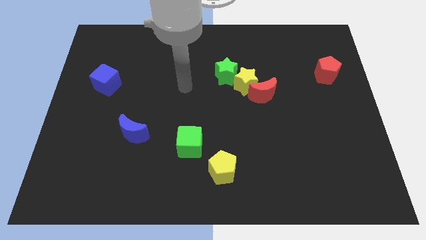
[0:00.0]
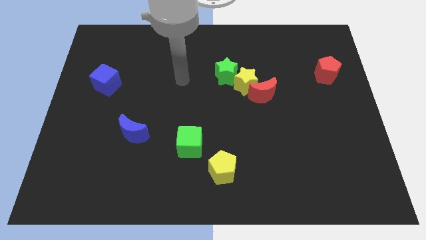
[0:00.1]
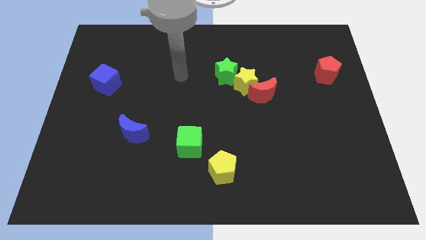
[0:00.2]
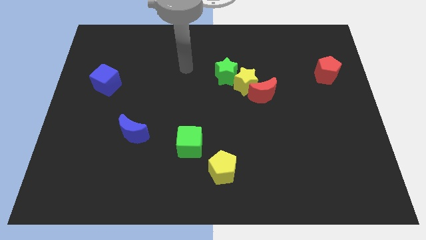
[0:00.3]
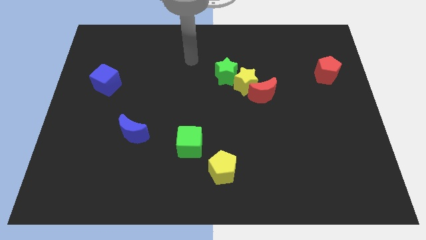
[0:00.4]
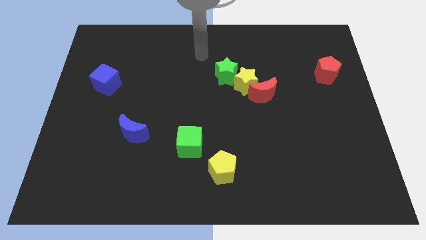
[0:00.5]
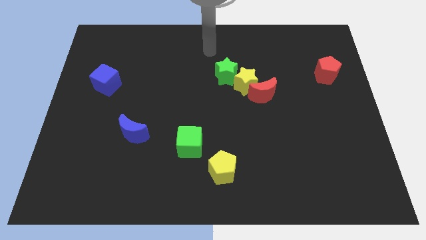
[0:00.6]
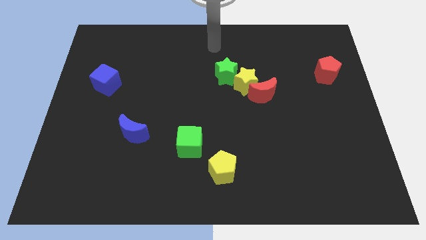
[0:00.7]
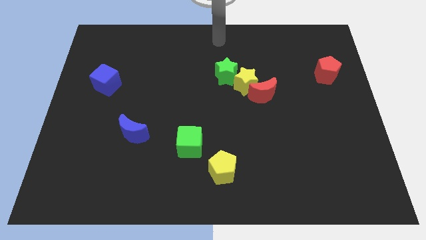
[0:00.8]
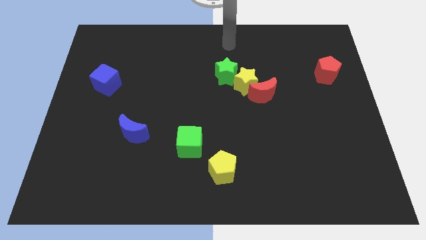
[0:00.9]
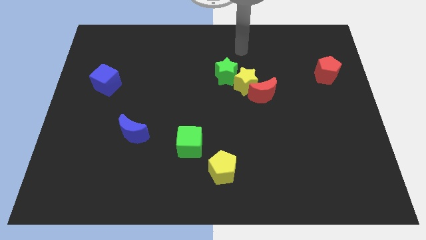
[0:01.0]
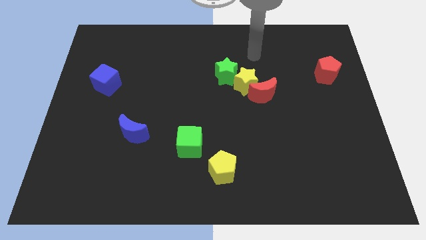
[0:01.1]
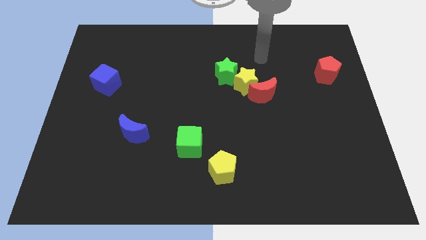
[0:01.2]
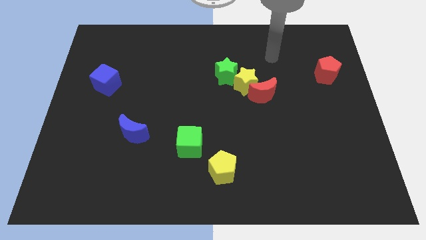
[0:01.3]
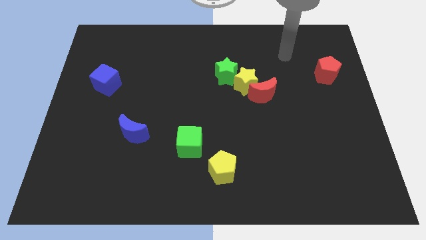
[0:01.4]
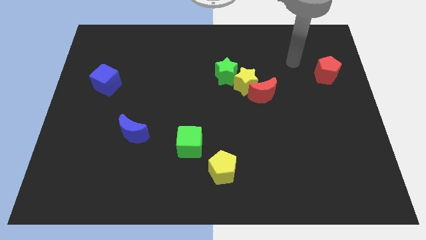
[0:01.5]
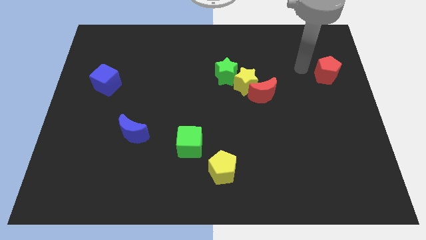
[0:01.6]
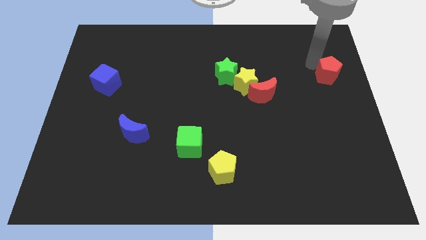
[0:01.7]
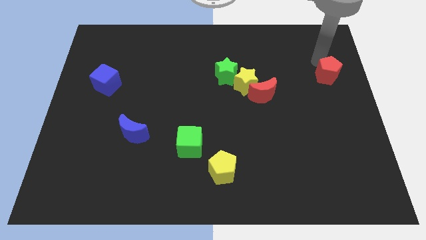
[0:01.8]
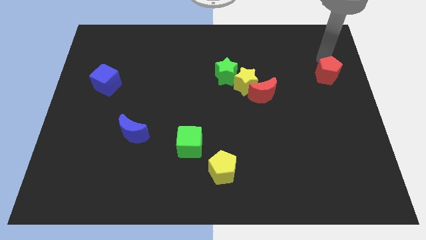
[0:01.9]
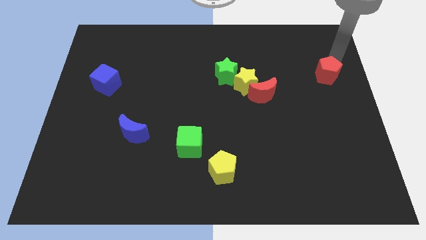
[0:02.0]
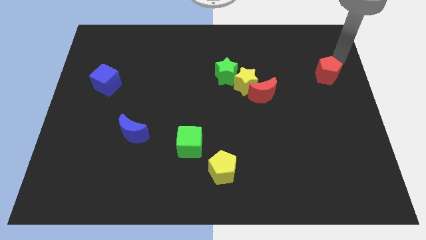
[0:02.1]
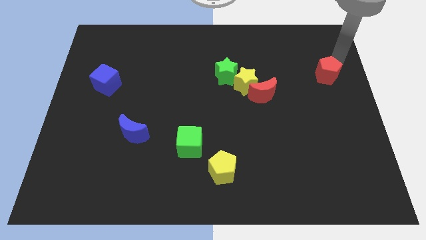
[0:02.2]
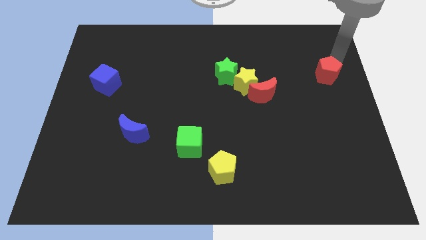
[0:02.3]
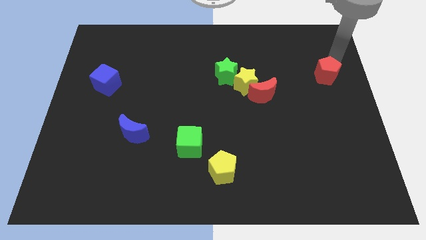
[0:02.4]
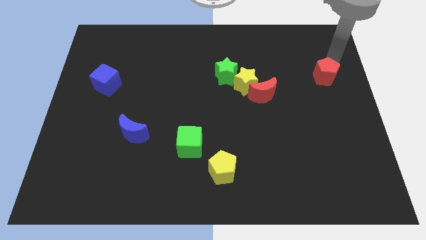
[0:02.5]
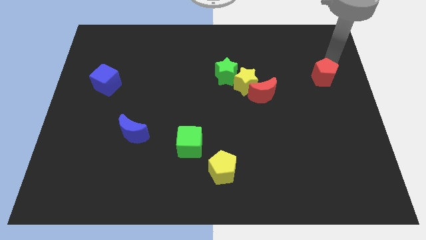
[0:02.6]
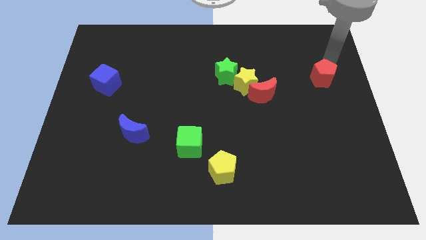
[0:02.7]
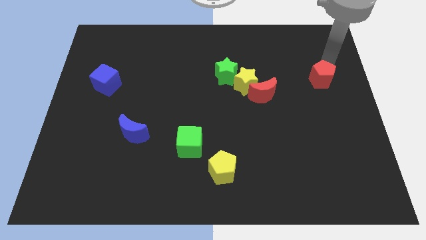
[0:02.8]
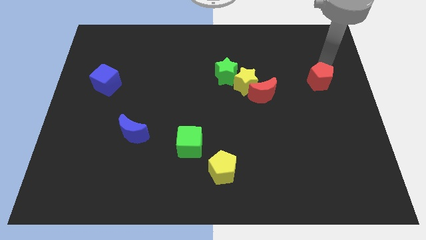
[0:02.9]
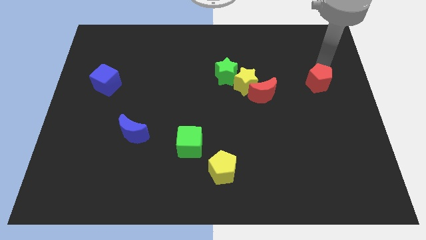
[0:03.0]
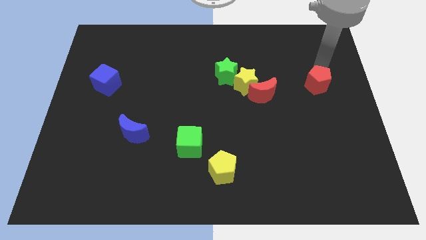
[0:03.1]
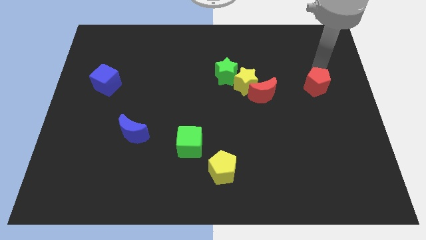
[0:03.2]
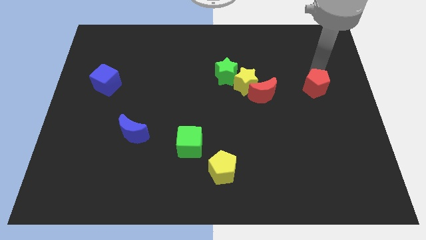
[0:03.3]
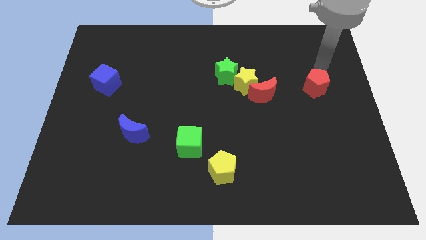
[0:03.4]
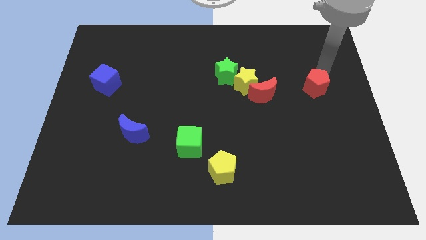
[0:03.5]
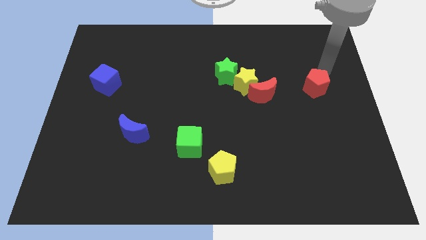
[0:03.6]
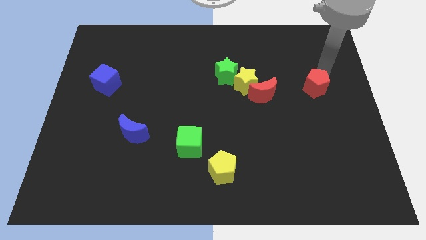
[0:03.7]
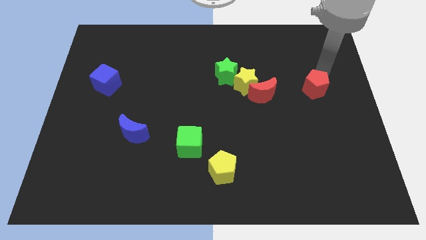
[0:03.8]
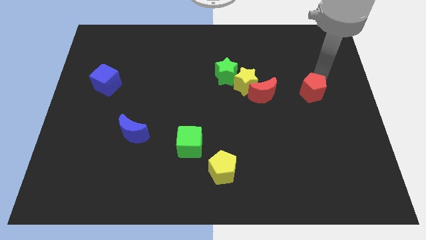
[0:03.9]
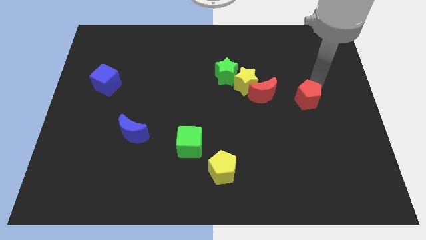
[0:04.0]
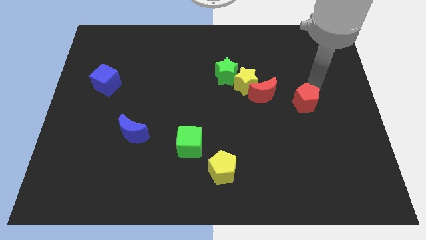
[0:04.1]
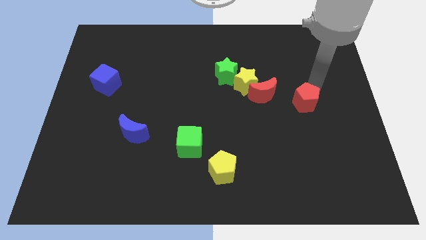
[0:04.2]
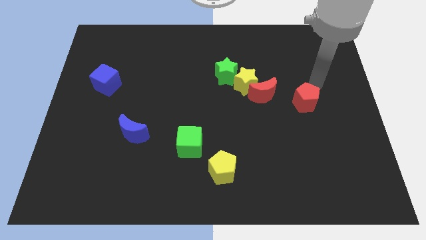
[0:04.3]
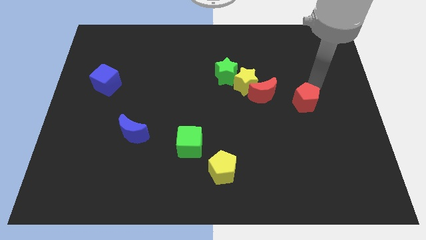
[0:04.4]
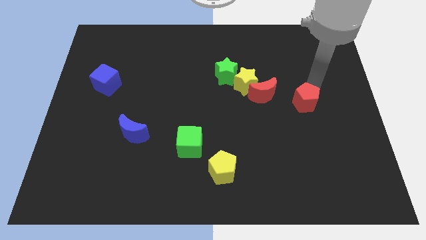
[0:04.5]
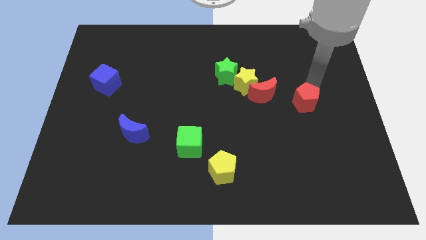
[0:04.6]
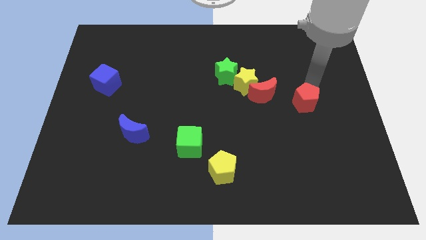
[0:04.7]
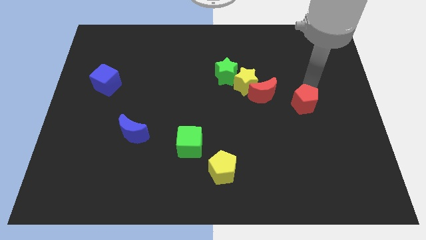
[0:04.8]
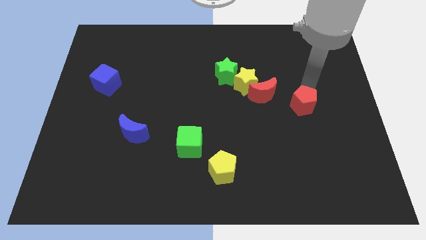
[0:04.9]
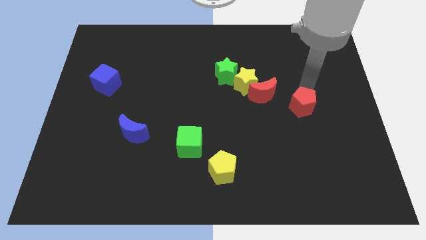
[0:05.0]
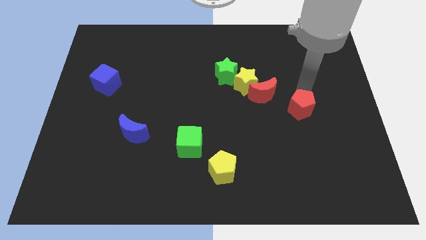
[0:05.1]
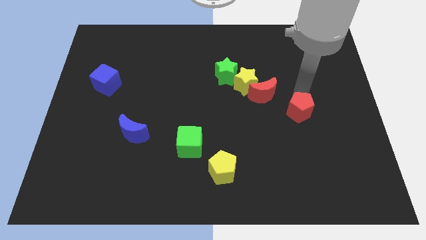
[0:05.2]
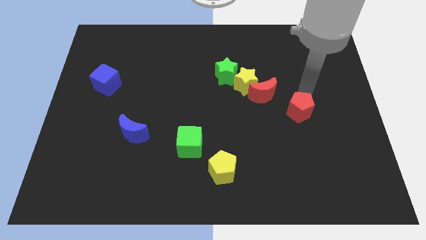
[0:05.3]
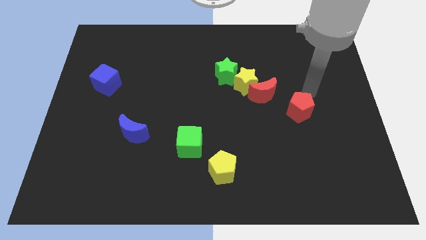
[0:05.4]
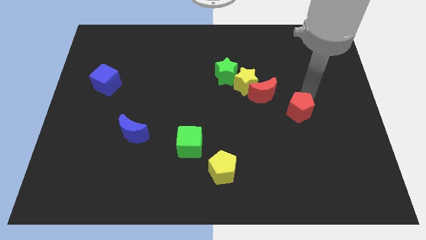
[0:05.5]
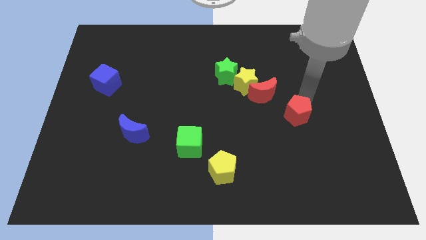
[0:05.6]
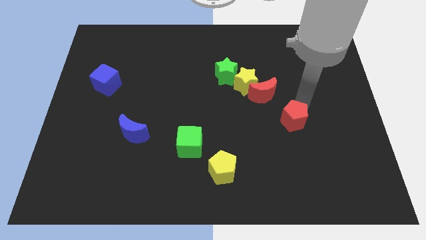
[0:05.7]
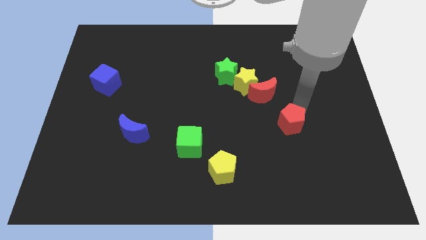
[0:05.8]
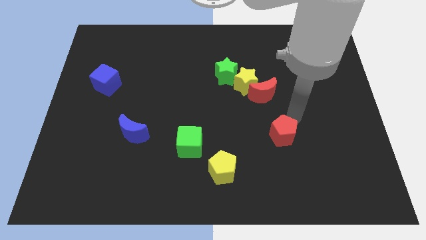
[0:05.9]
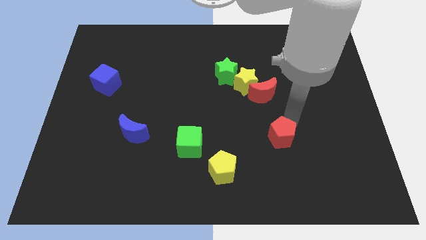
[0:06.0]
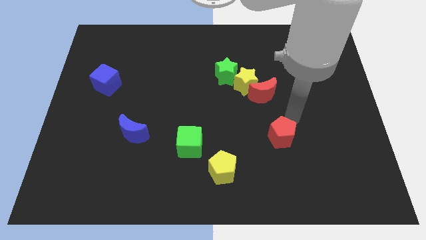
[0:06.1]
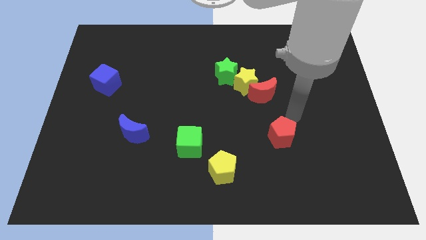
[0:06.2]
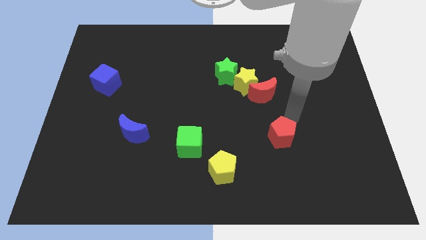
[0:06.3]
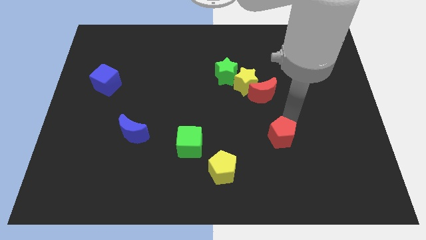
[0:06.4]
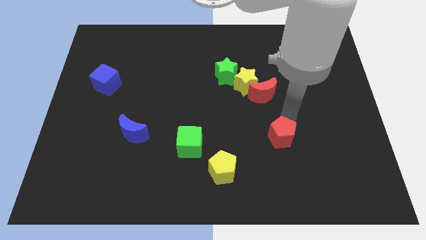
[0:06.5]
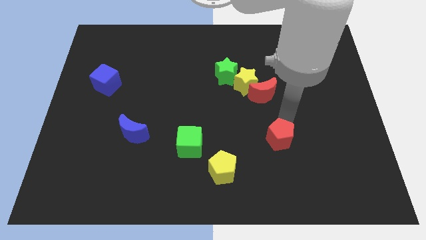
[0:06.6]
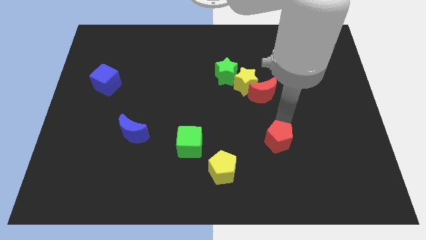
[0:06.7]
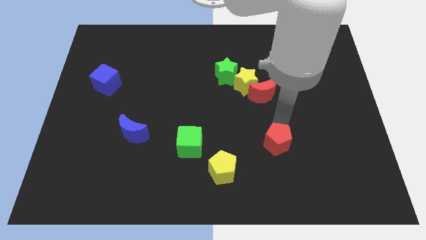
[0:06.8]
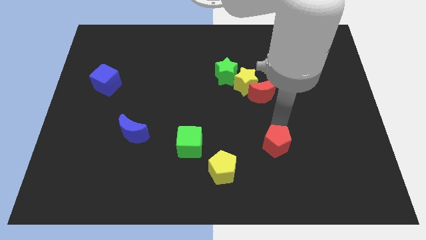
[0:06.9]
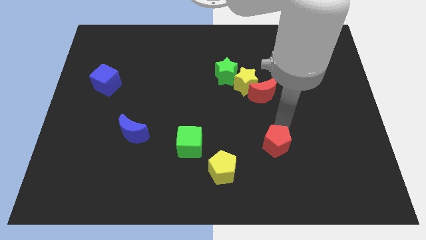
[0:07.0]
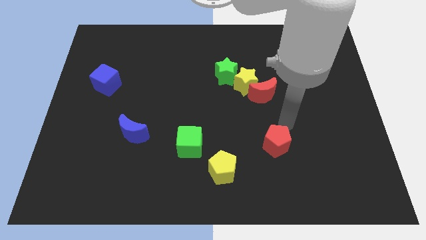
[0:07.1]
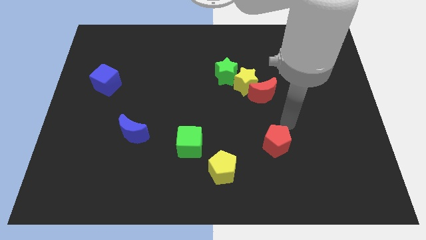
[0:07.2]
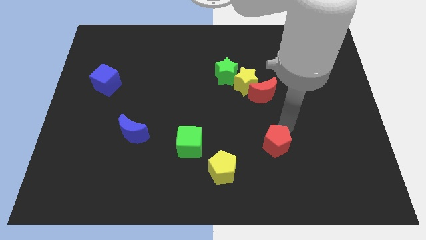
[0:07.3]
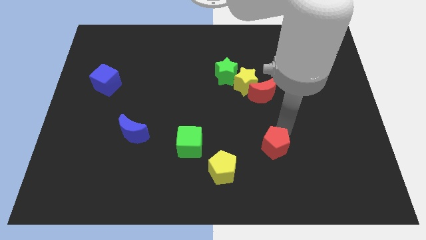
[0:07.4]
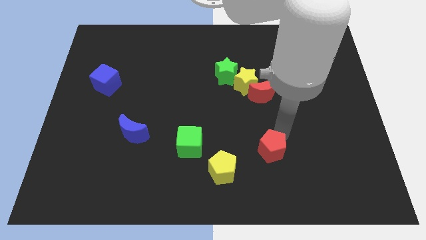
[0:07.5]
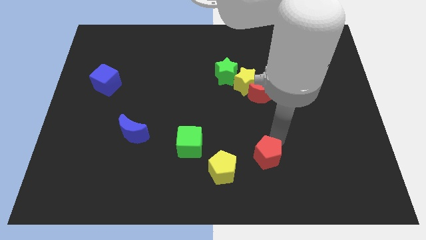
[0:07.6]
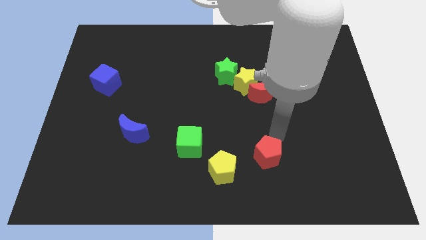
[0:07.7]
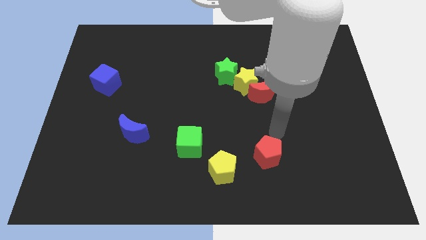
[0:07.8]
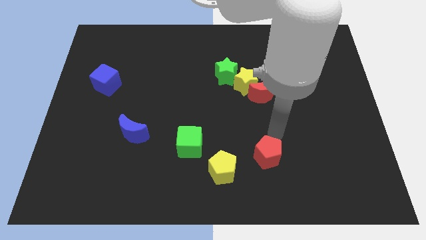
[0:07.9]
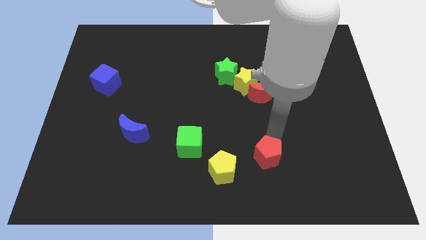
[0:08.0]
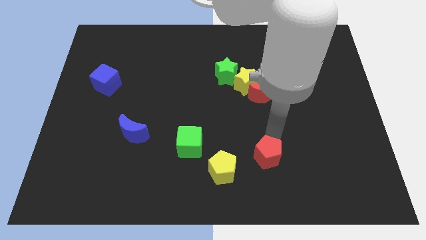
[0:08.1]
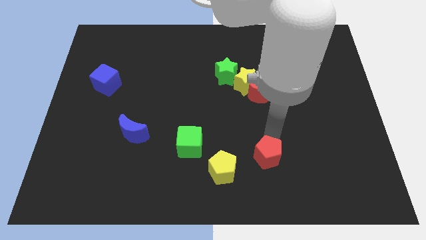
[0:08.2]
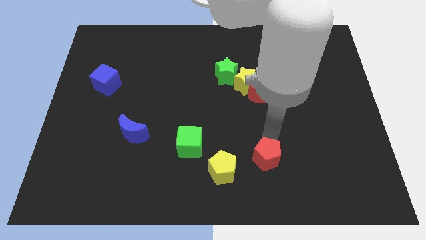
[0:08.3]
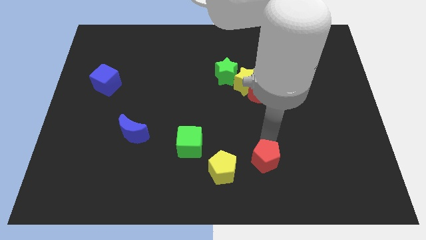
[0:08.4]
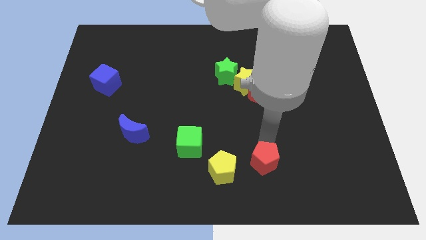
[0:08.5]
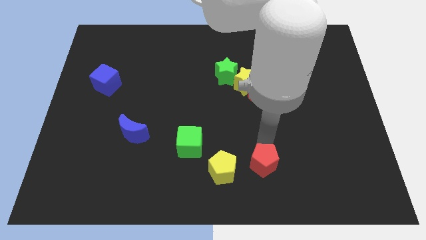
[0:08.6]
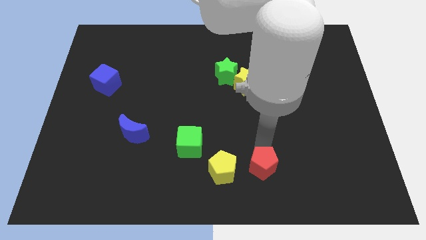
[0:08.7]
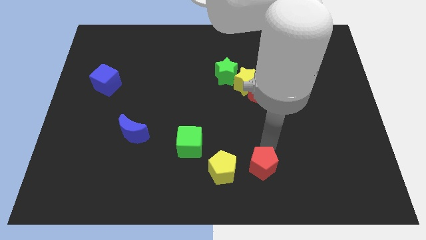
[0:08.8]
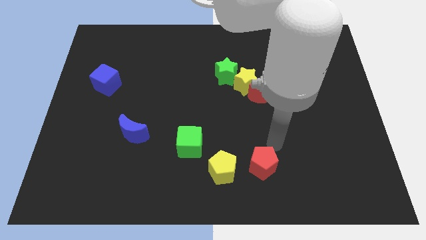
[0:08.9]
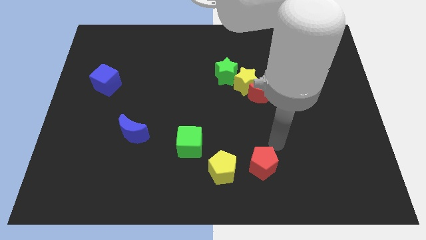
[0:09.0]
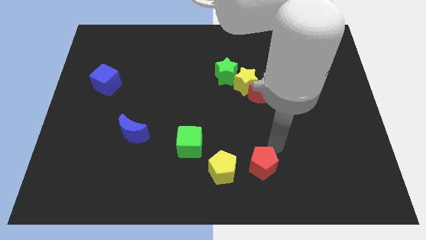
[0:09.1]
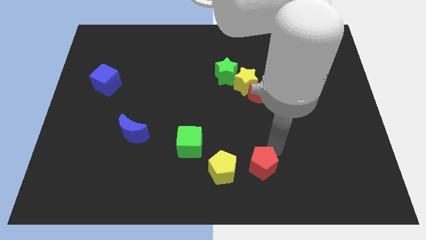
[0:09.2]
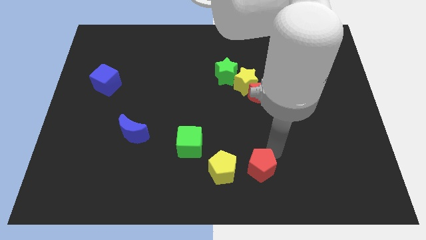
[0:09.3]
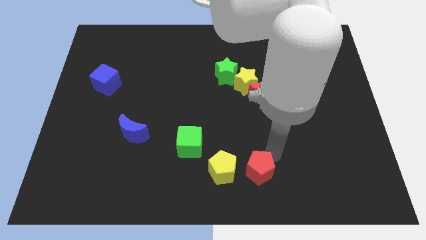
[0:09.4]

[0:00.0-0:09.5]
move the red pentagon to the bottom side
